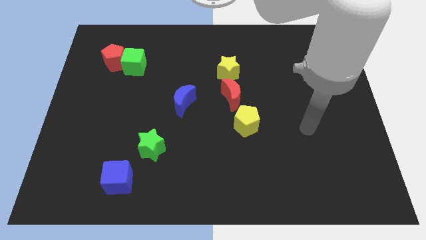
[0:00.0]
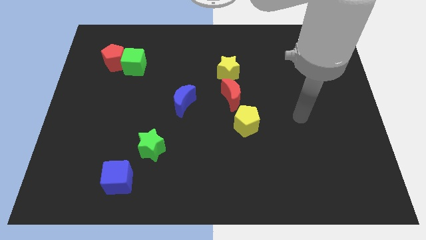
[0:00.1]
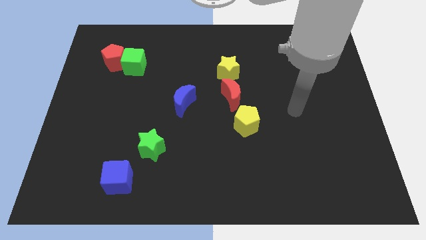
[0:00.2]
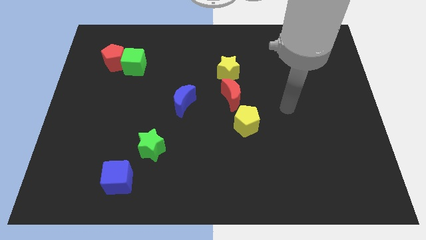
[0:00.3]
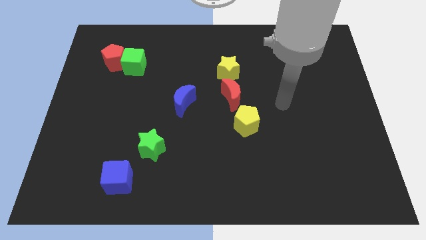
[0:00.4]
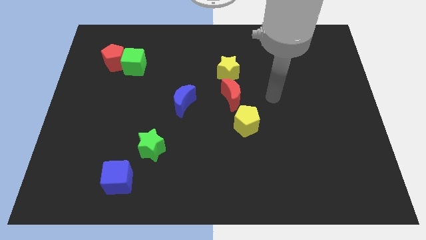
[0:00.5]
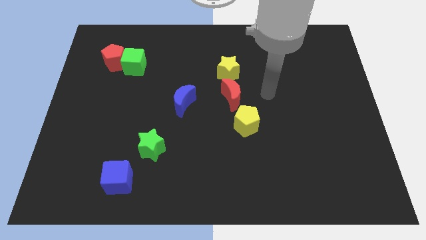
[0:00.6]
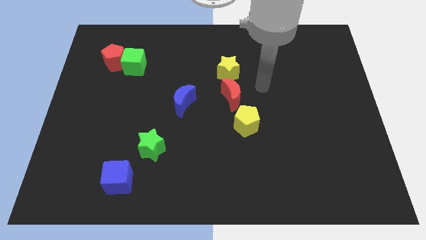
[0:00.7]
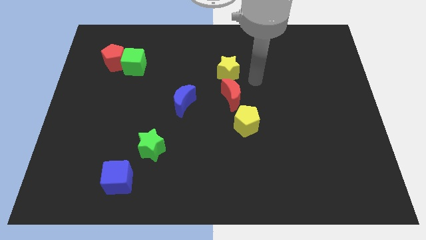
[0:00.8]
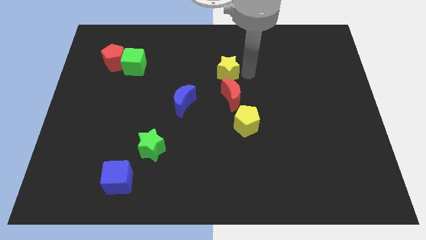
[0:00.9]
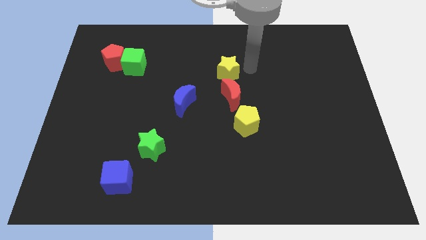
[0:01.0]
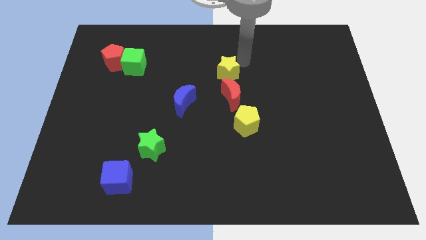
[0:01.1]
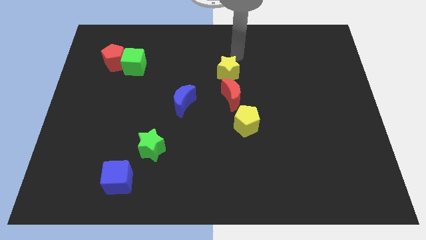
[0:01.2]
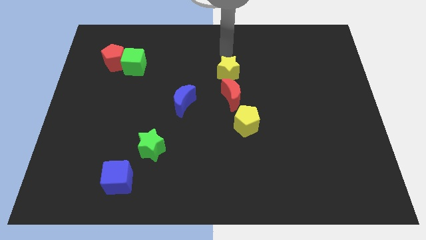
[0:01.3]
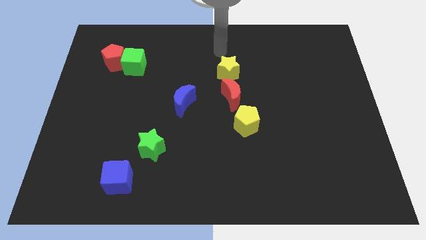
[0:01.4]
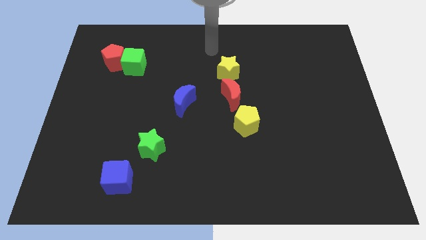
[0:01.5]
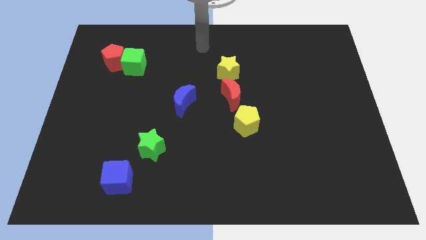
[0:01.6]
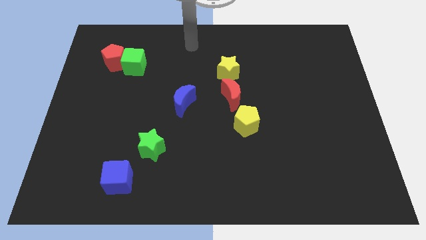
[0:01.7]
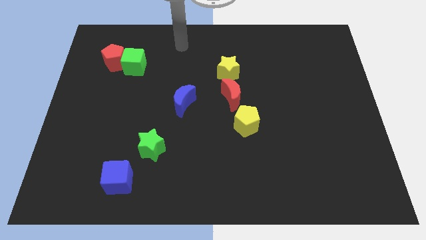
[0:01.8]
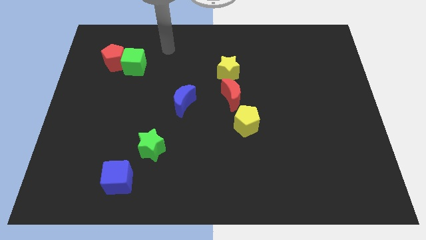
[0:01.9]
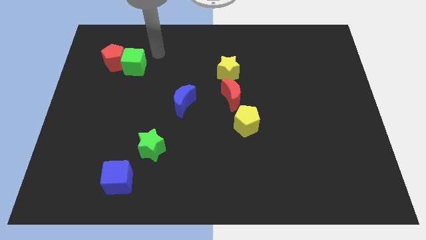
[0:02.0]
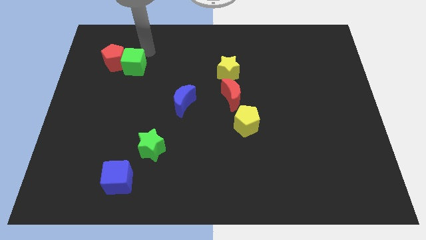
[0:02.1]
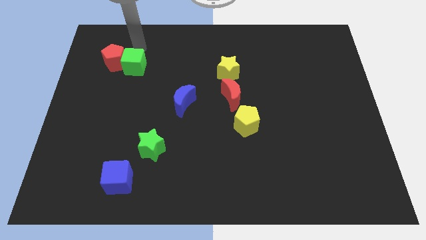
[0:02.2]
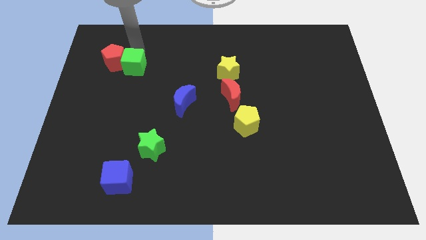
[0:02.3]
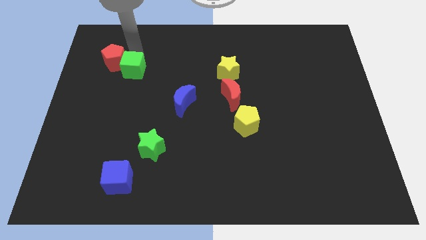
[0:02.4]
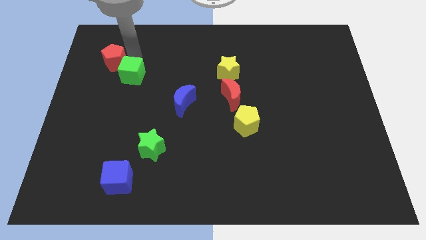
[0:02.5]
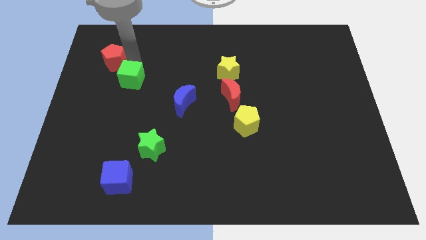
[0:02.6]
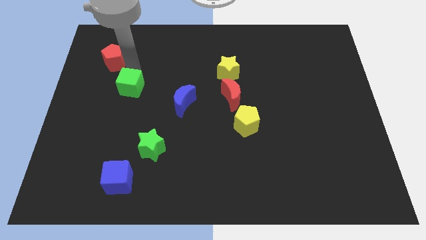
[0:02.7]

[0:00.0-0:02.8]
slightly slide the green cube down

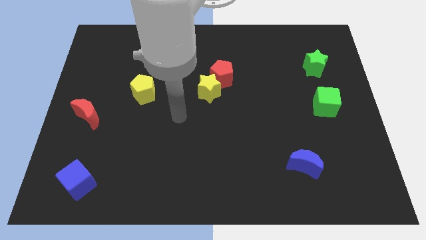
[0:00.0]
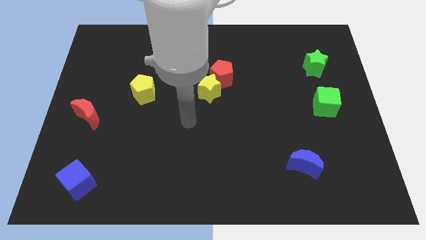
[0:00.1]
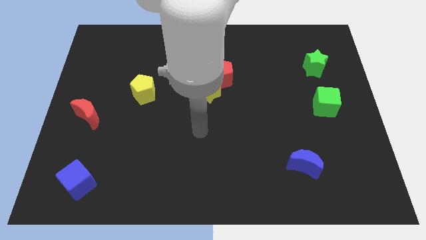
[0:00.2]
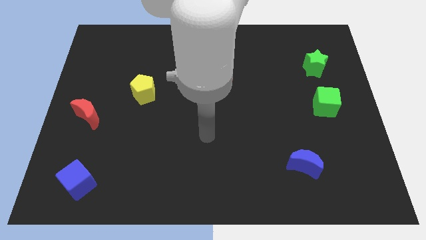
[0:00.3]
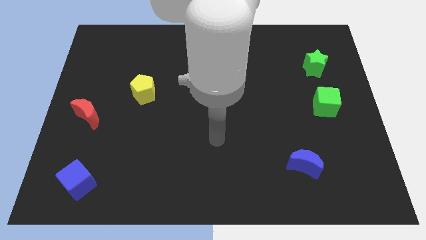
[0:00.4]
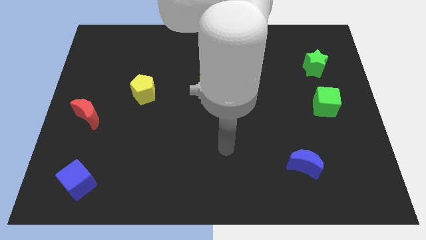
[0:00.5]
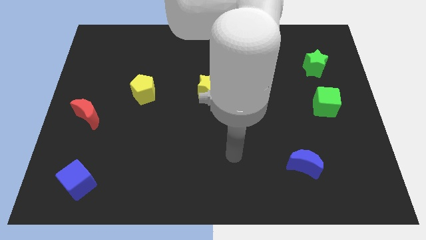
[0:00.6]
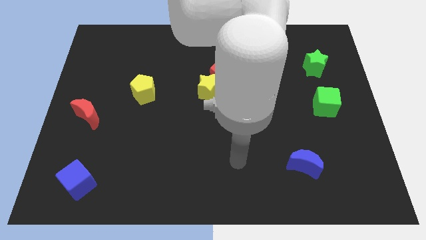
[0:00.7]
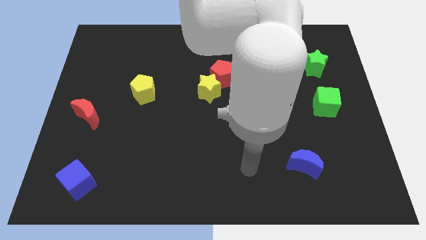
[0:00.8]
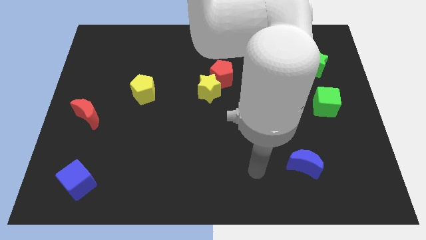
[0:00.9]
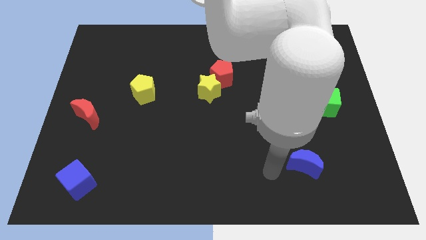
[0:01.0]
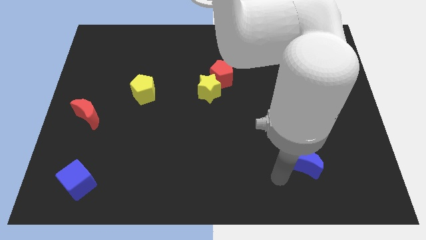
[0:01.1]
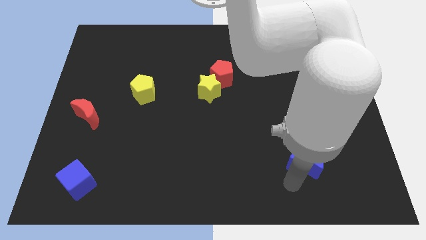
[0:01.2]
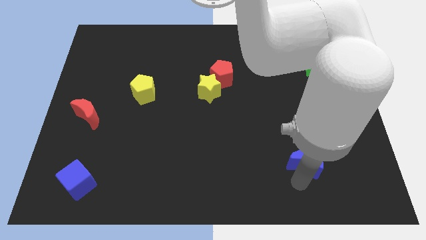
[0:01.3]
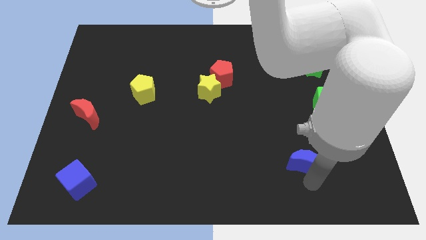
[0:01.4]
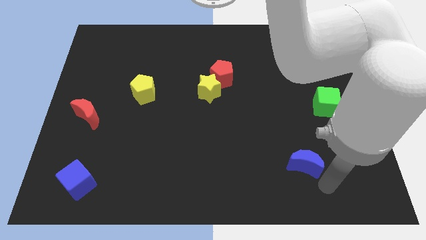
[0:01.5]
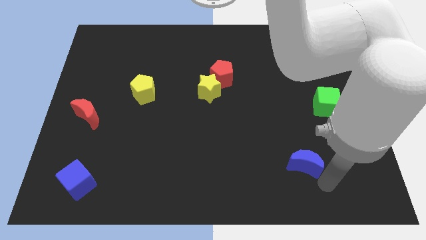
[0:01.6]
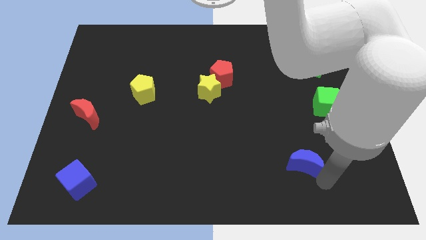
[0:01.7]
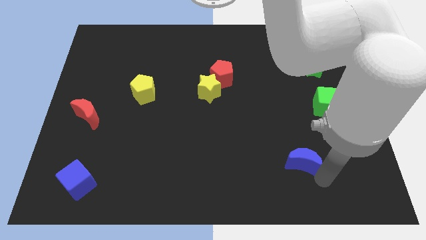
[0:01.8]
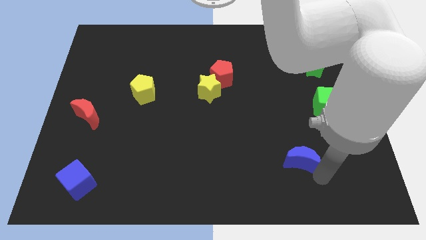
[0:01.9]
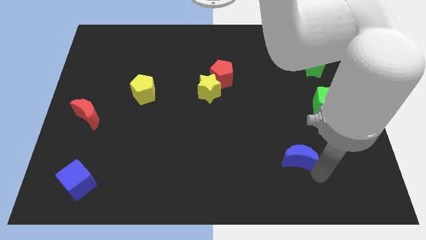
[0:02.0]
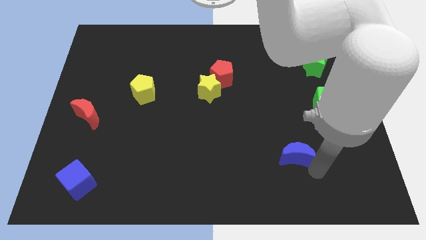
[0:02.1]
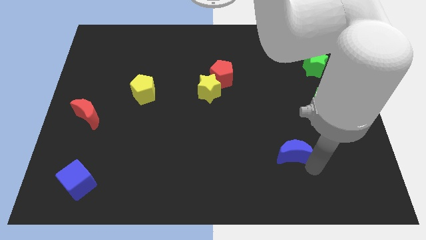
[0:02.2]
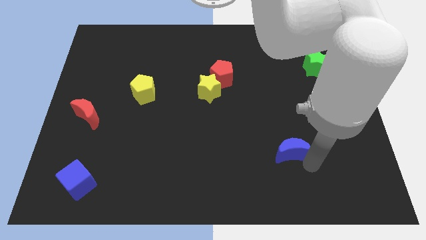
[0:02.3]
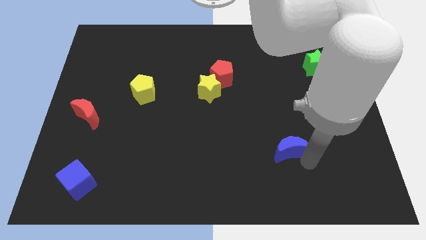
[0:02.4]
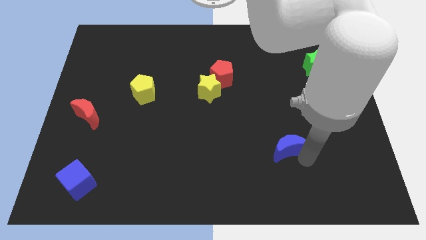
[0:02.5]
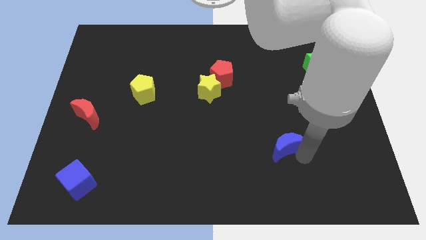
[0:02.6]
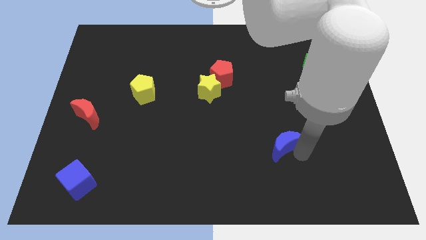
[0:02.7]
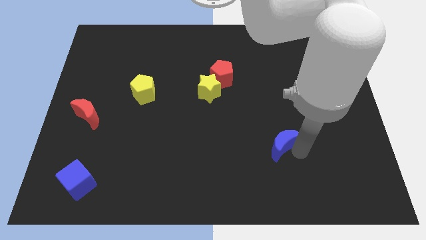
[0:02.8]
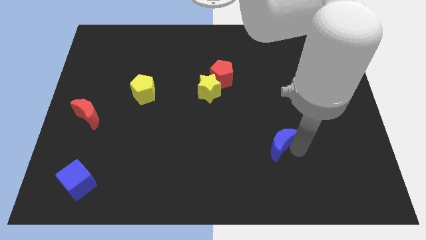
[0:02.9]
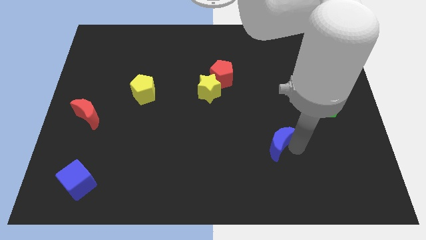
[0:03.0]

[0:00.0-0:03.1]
slide the blue moon a little diagonally up and left

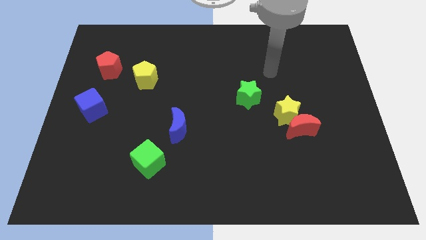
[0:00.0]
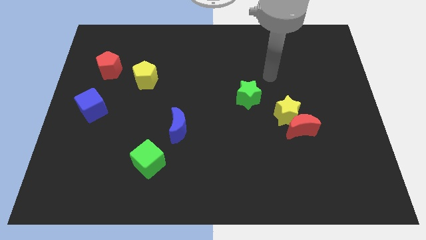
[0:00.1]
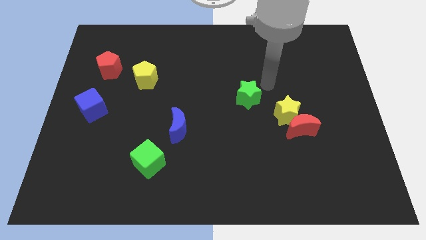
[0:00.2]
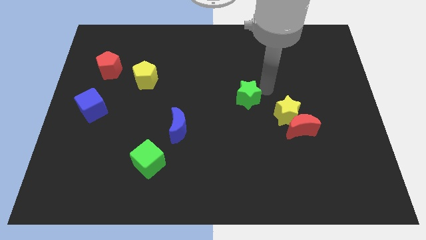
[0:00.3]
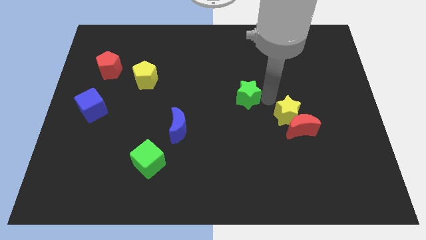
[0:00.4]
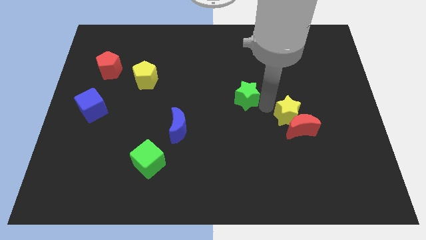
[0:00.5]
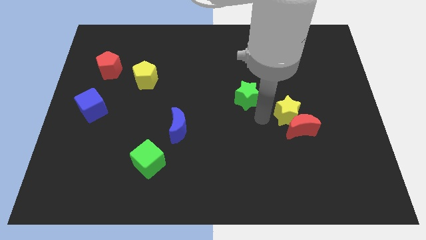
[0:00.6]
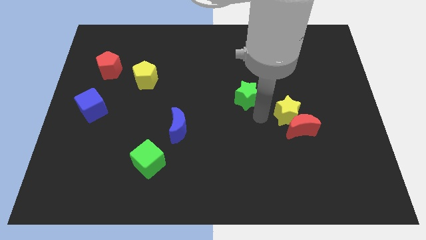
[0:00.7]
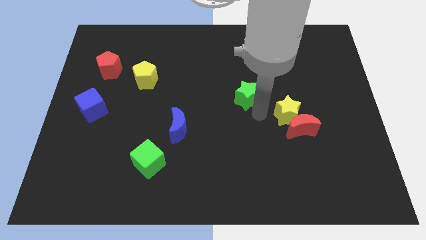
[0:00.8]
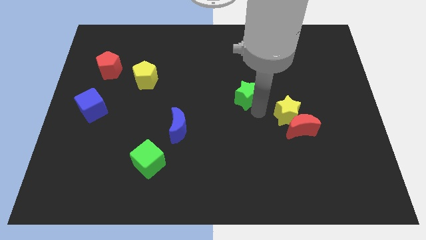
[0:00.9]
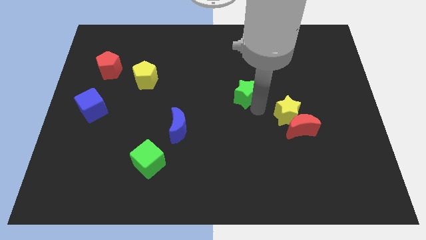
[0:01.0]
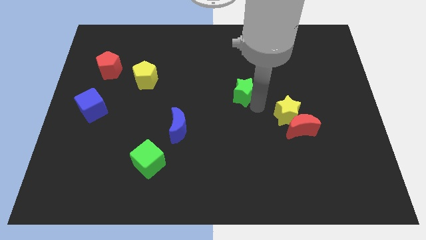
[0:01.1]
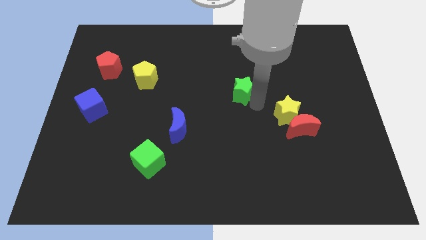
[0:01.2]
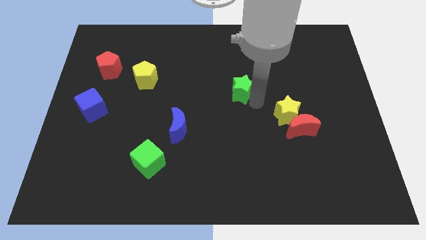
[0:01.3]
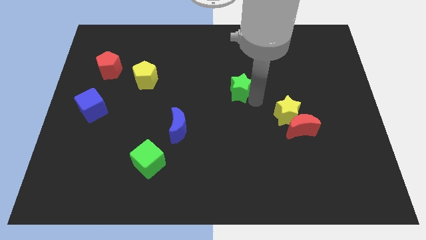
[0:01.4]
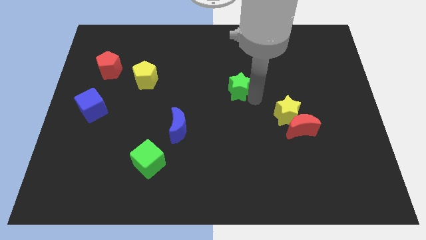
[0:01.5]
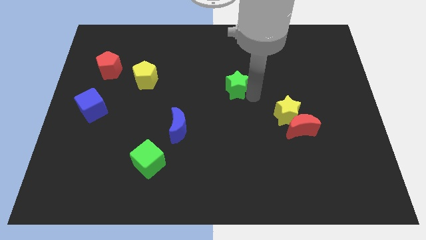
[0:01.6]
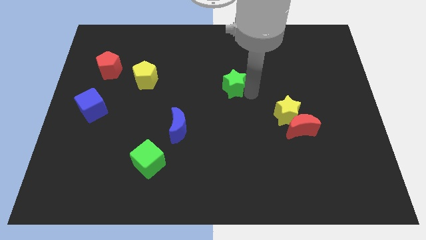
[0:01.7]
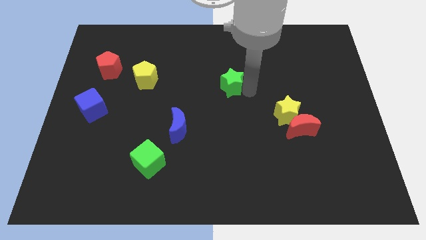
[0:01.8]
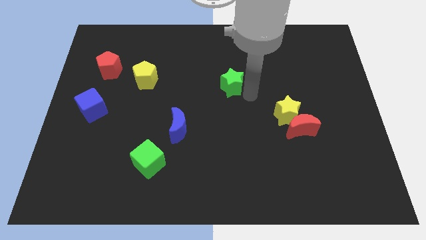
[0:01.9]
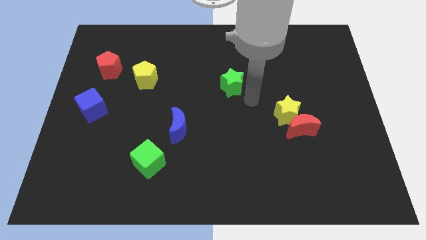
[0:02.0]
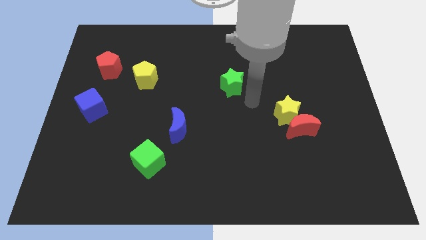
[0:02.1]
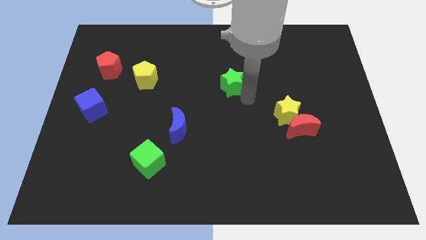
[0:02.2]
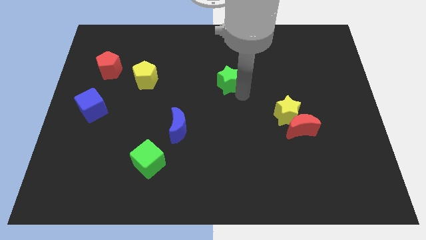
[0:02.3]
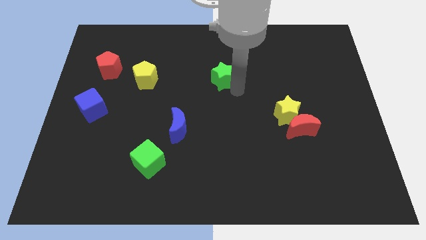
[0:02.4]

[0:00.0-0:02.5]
slightly move the green star upwards and to the left diagonally
